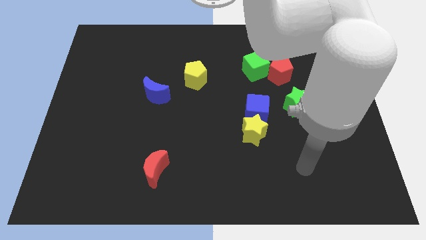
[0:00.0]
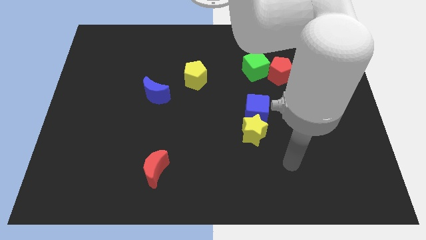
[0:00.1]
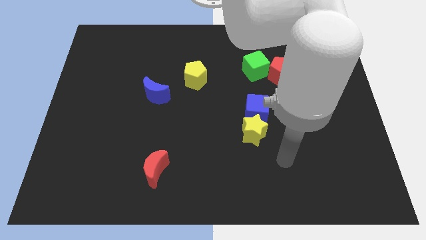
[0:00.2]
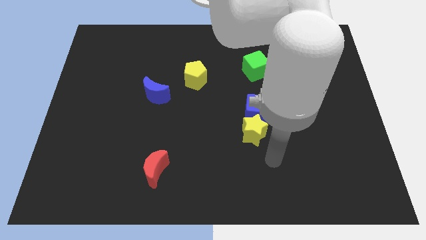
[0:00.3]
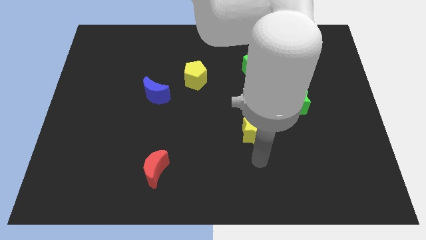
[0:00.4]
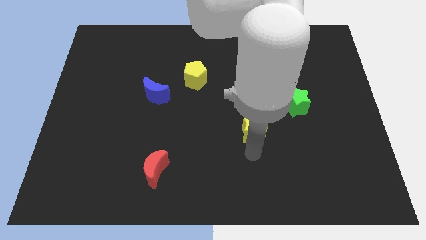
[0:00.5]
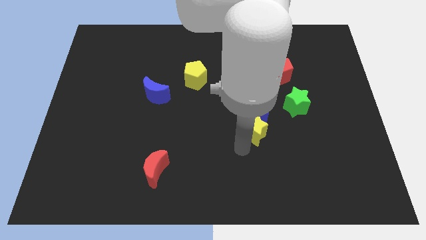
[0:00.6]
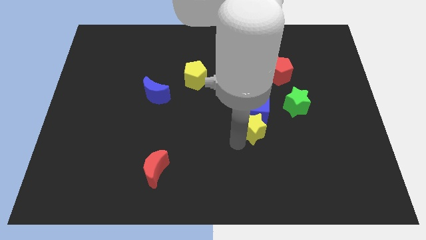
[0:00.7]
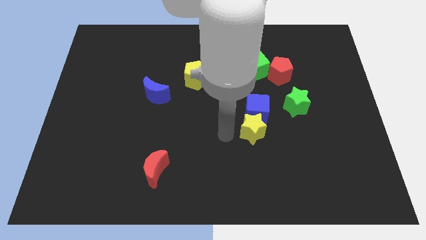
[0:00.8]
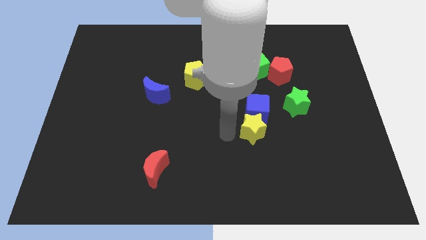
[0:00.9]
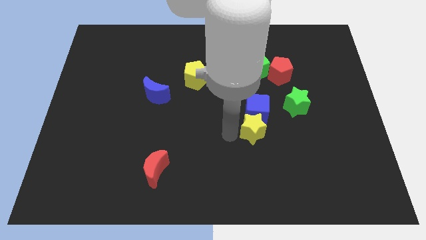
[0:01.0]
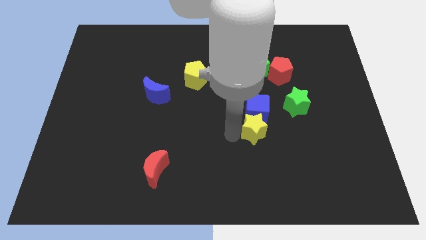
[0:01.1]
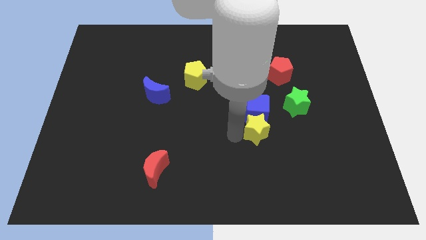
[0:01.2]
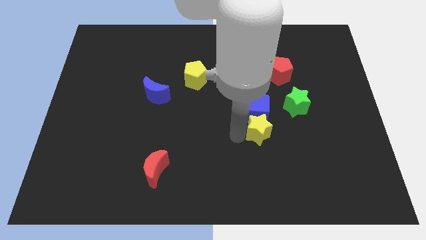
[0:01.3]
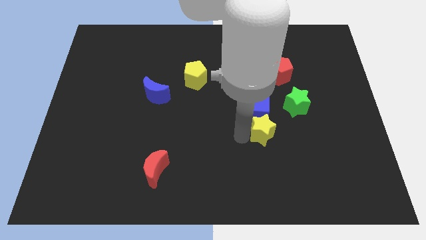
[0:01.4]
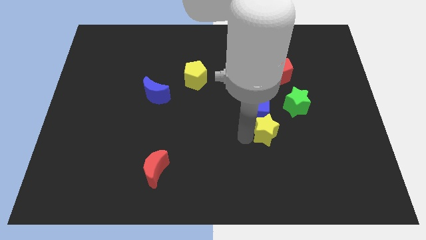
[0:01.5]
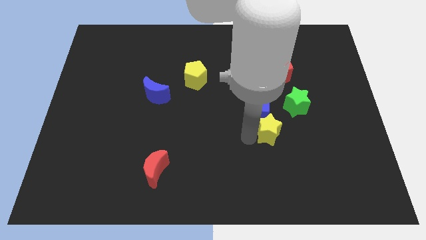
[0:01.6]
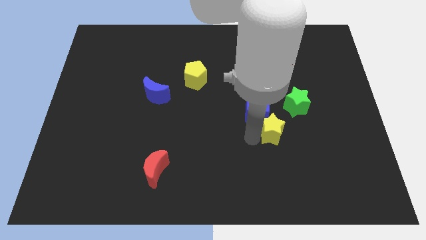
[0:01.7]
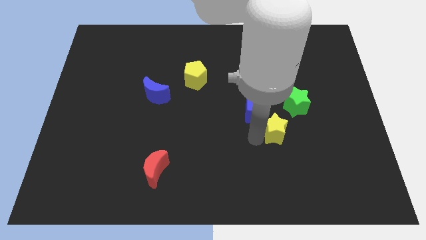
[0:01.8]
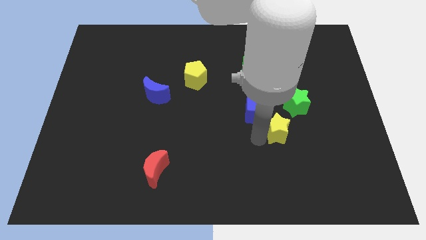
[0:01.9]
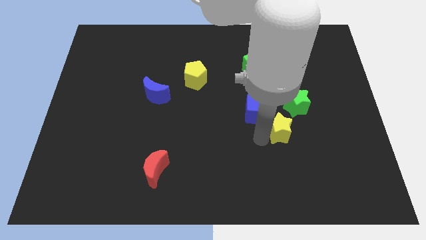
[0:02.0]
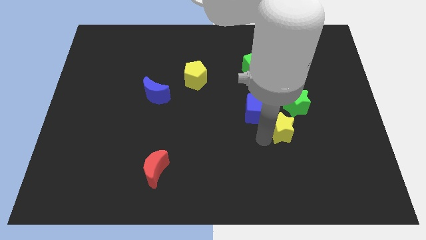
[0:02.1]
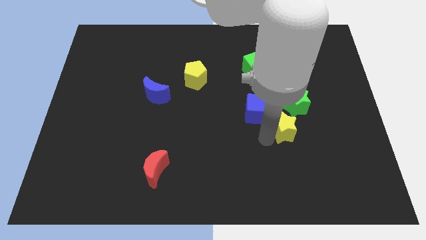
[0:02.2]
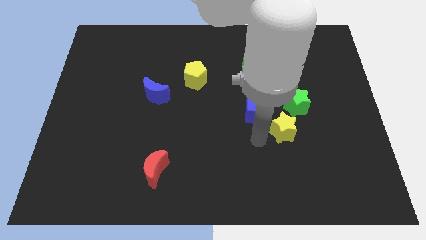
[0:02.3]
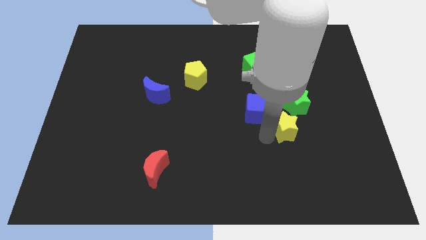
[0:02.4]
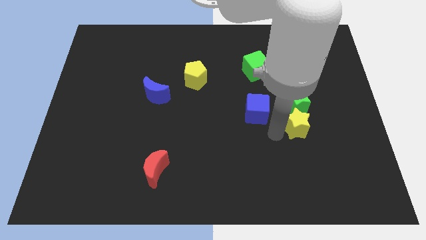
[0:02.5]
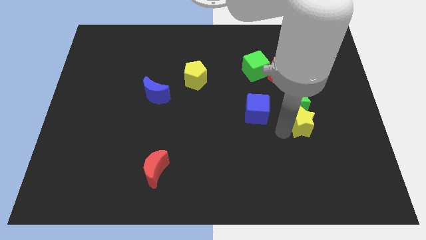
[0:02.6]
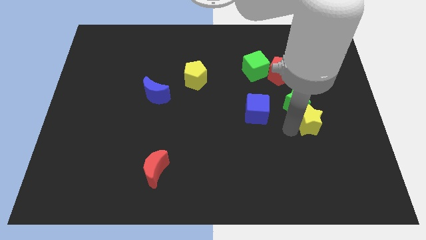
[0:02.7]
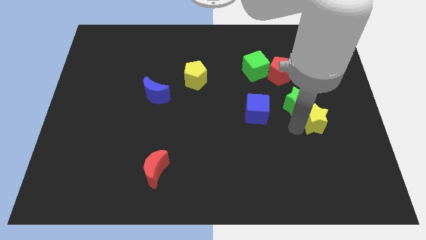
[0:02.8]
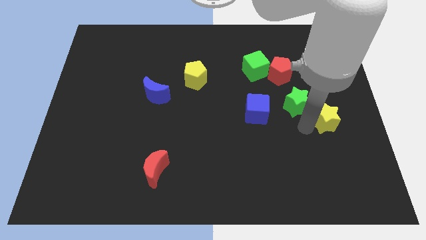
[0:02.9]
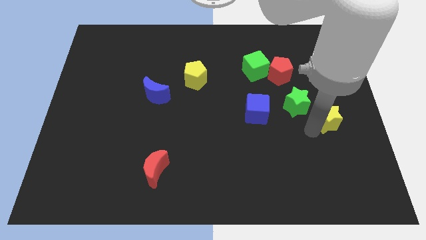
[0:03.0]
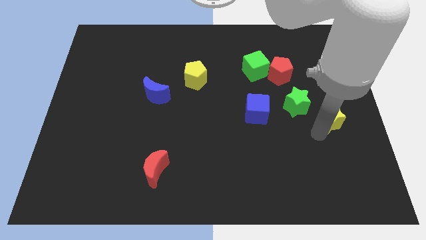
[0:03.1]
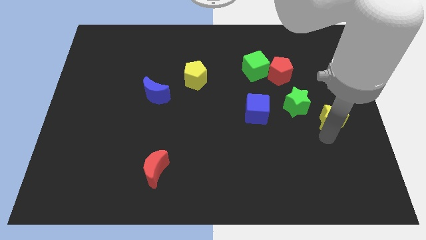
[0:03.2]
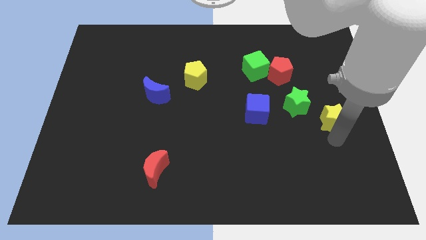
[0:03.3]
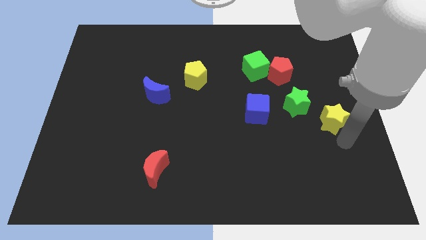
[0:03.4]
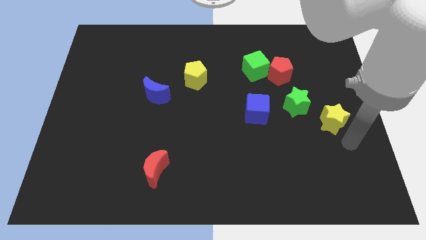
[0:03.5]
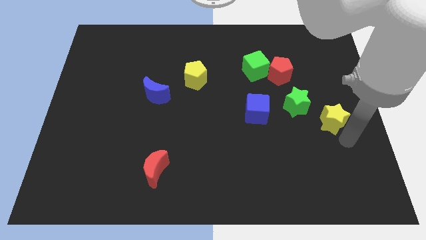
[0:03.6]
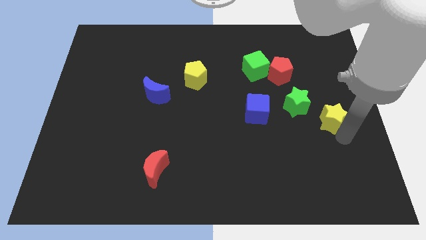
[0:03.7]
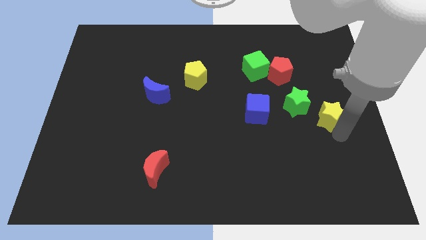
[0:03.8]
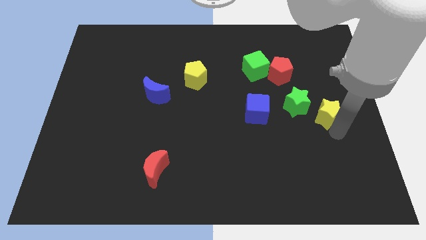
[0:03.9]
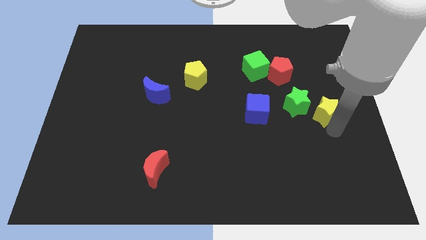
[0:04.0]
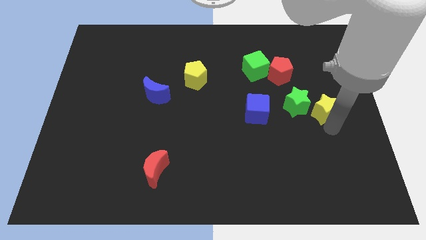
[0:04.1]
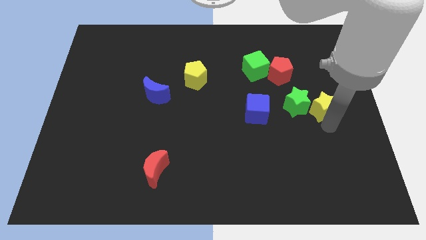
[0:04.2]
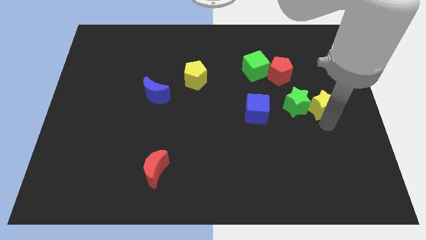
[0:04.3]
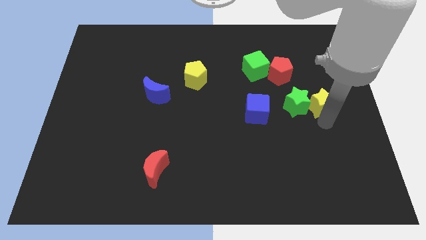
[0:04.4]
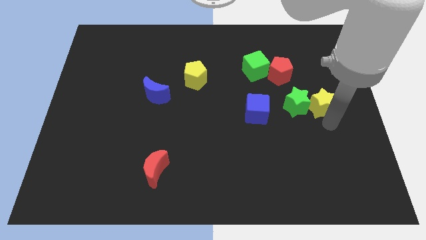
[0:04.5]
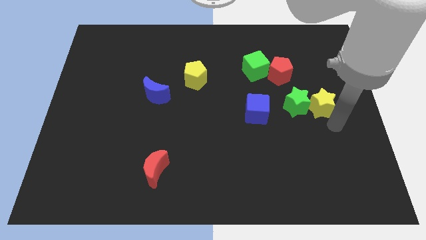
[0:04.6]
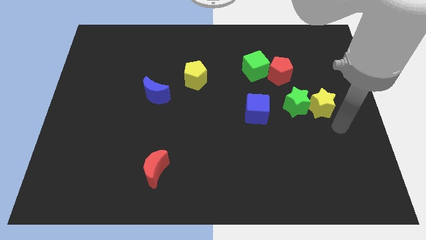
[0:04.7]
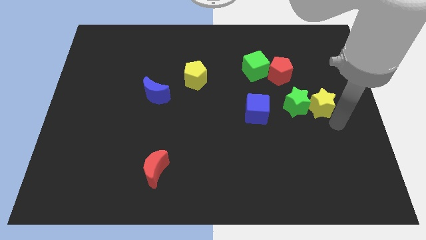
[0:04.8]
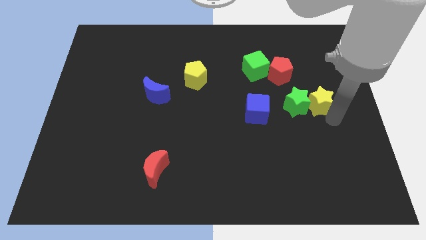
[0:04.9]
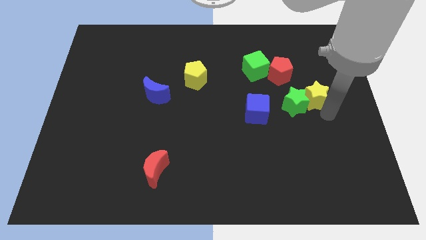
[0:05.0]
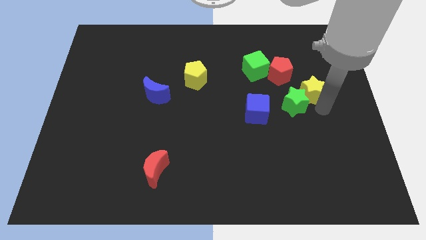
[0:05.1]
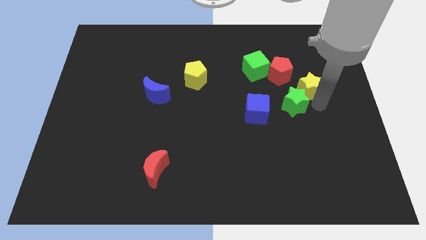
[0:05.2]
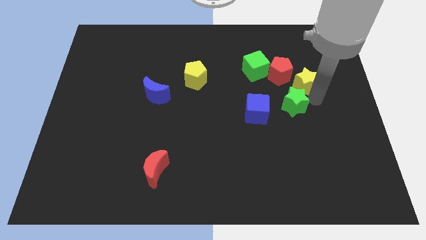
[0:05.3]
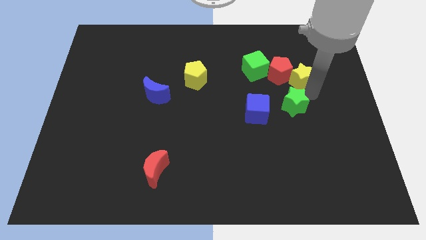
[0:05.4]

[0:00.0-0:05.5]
push the yellow star right of the green cube

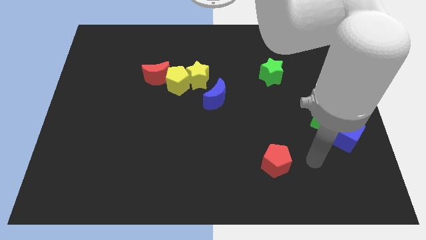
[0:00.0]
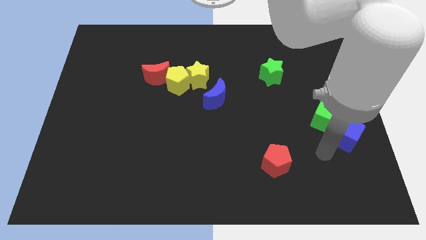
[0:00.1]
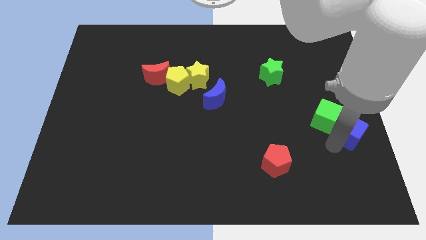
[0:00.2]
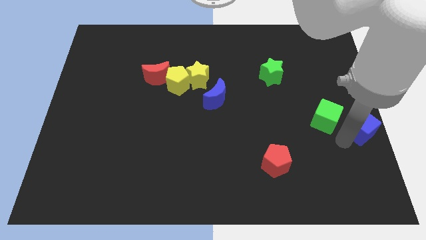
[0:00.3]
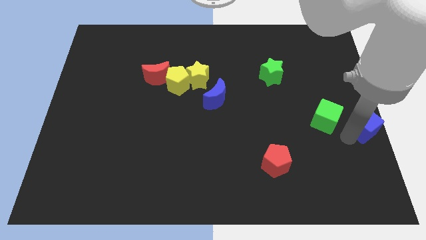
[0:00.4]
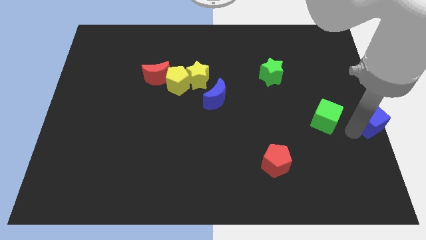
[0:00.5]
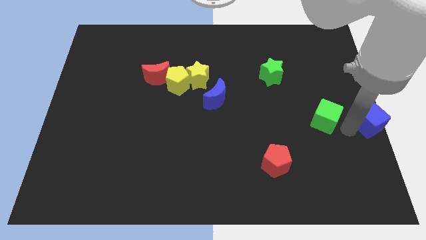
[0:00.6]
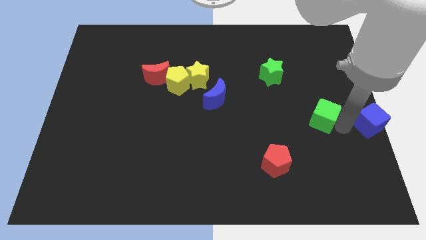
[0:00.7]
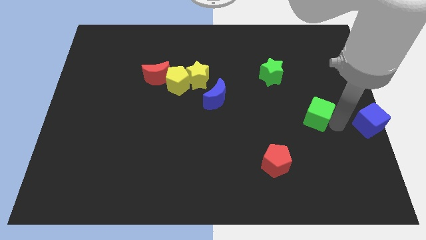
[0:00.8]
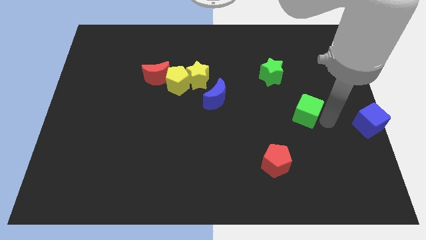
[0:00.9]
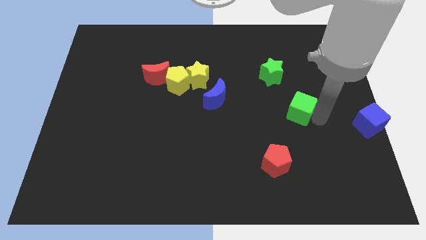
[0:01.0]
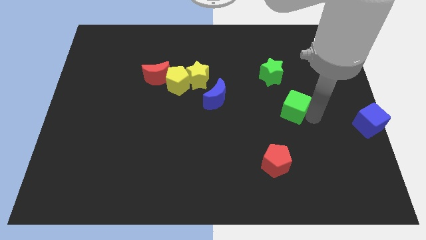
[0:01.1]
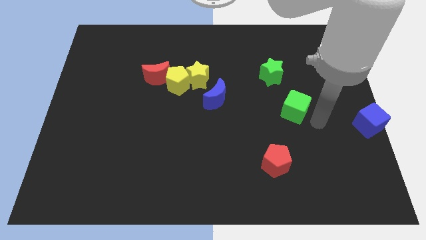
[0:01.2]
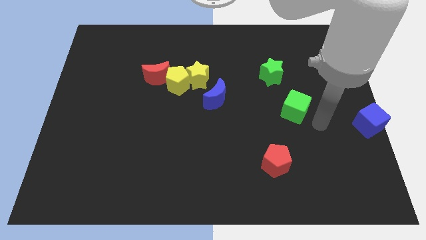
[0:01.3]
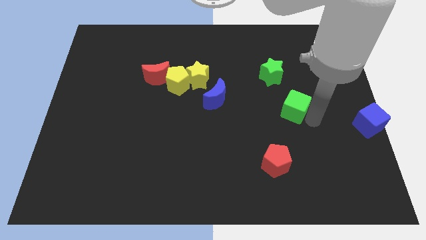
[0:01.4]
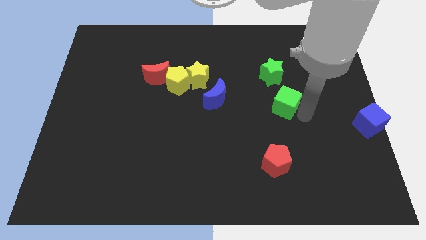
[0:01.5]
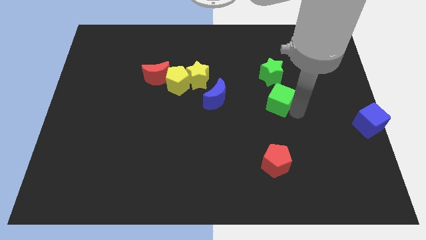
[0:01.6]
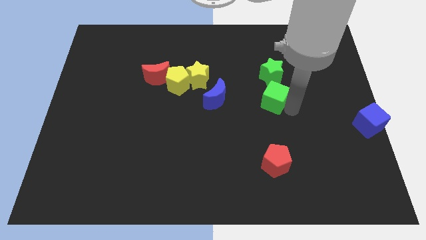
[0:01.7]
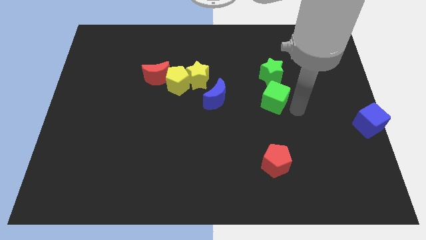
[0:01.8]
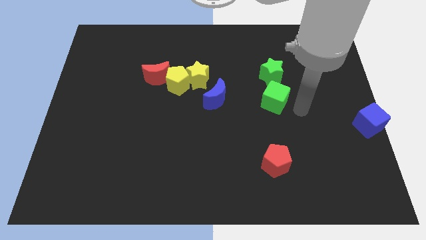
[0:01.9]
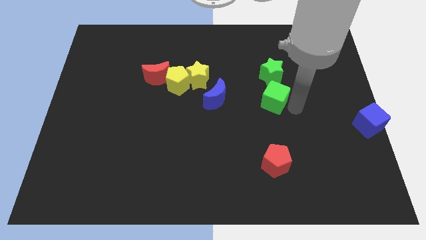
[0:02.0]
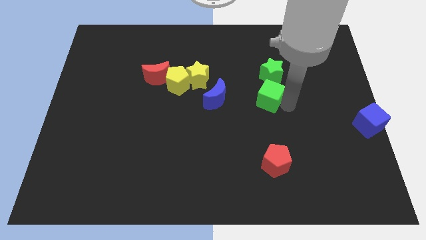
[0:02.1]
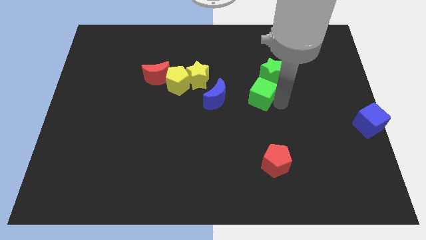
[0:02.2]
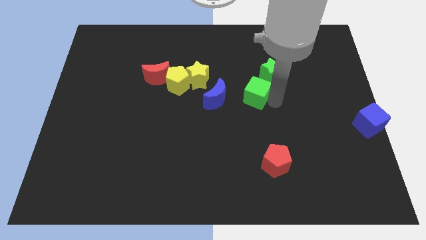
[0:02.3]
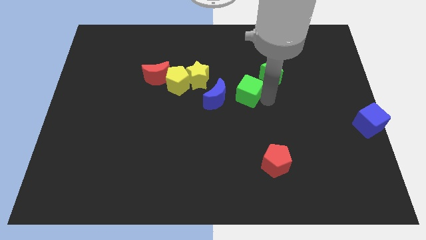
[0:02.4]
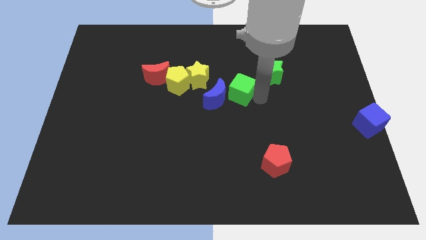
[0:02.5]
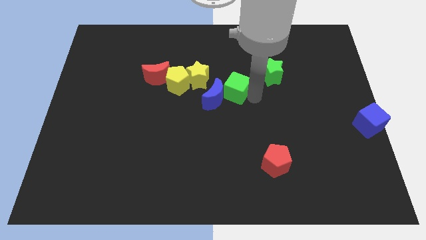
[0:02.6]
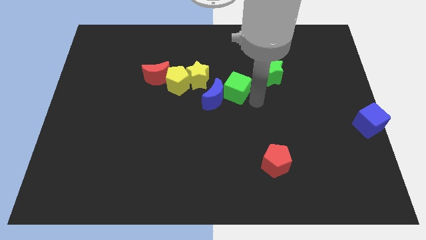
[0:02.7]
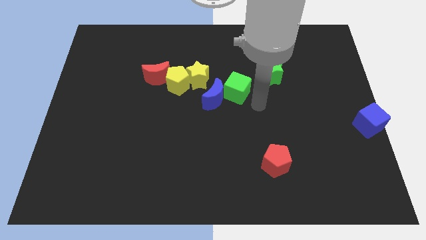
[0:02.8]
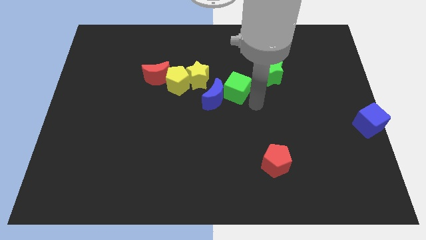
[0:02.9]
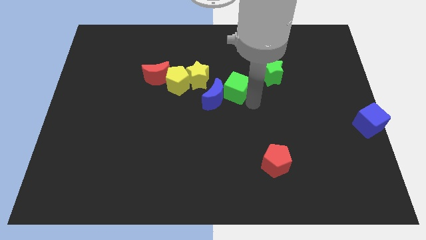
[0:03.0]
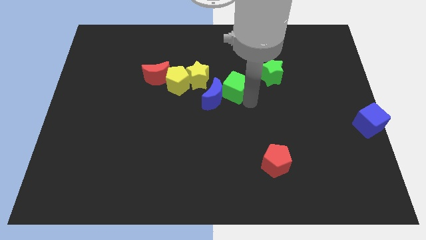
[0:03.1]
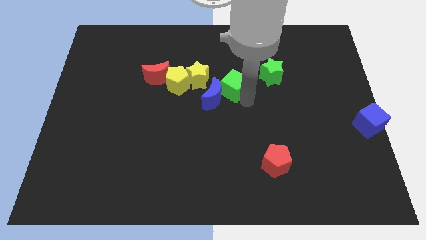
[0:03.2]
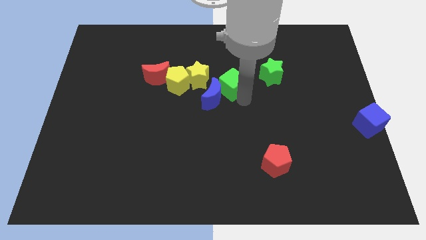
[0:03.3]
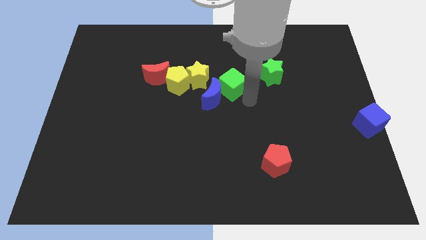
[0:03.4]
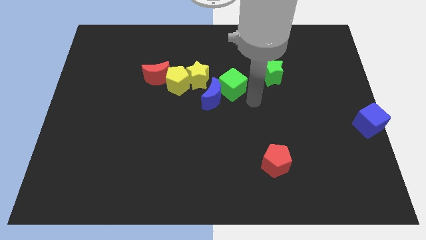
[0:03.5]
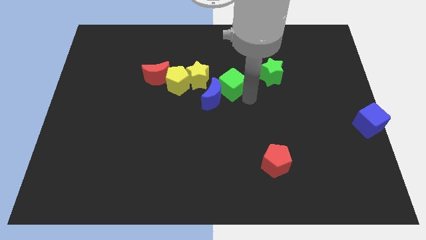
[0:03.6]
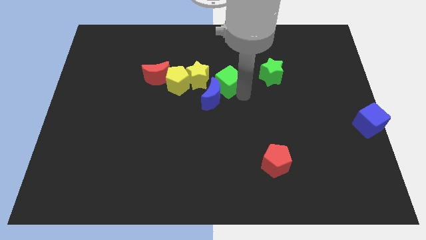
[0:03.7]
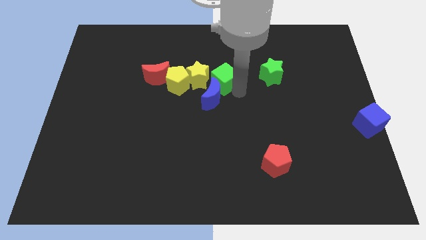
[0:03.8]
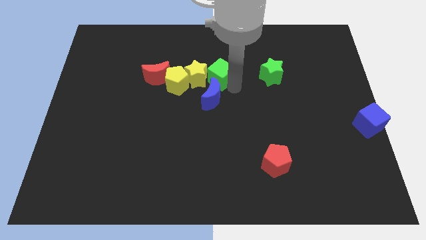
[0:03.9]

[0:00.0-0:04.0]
push the green cube to the right of the red moon
